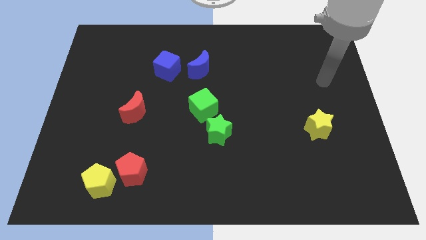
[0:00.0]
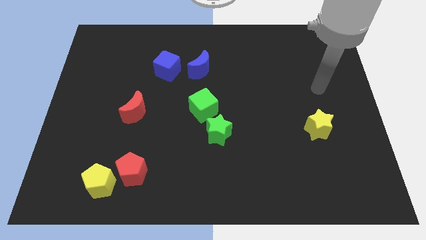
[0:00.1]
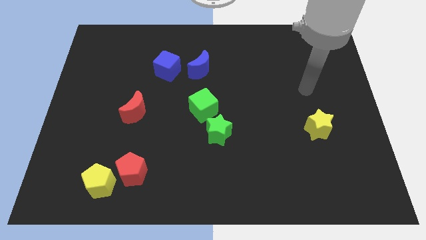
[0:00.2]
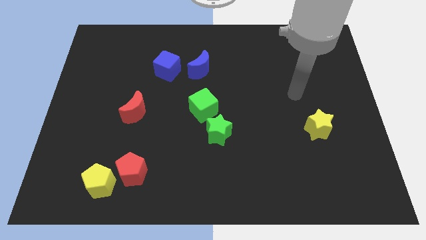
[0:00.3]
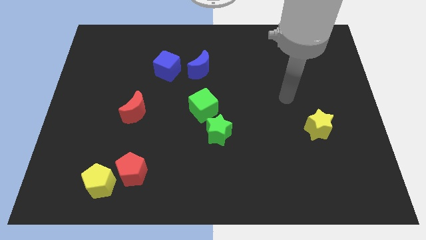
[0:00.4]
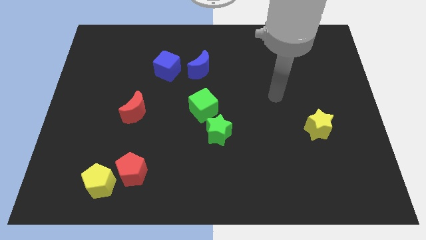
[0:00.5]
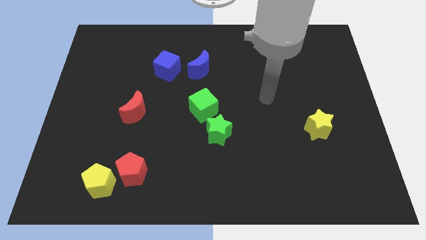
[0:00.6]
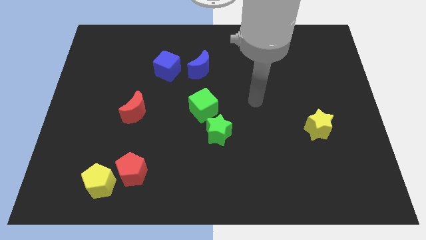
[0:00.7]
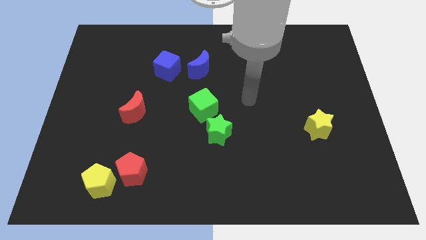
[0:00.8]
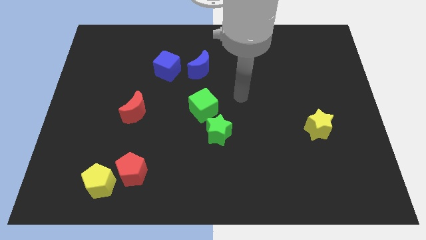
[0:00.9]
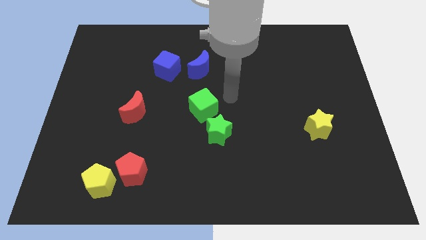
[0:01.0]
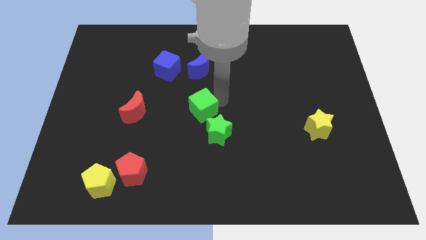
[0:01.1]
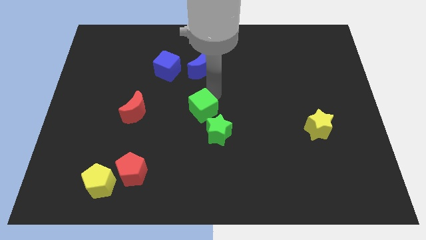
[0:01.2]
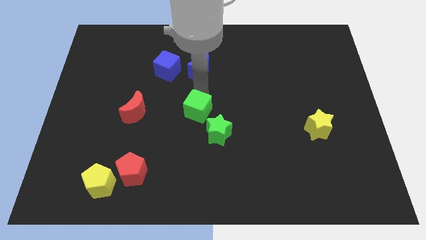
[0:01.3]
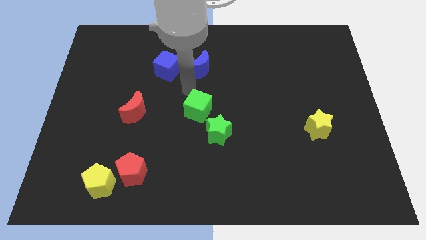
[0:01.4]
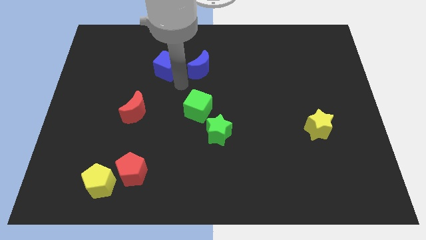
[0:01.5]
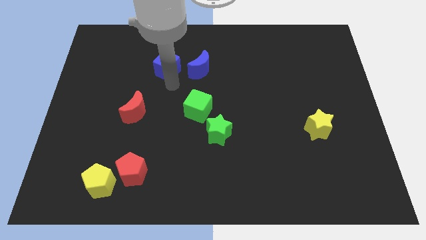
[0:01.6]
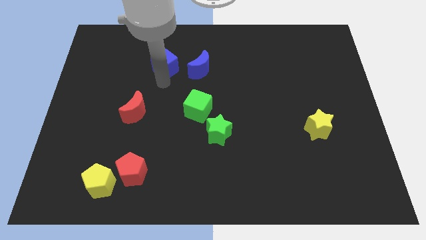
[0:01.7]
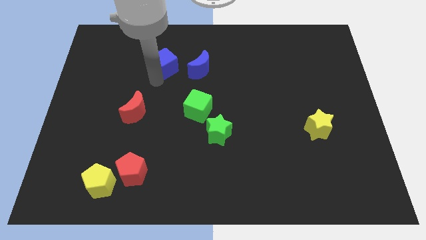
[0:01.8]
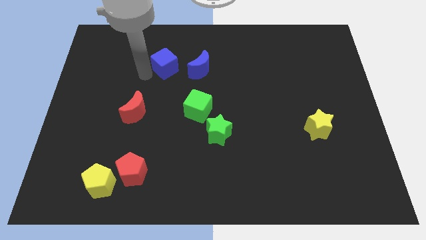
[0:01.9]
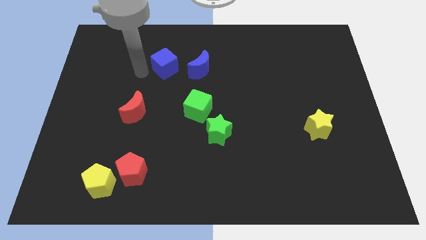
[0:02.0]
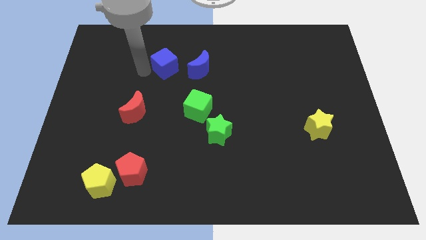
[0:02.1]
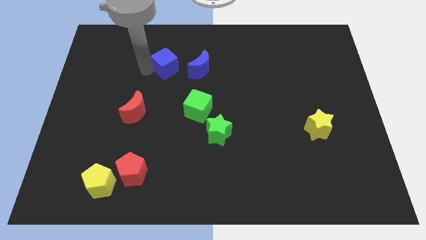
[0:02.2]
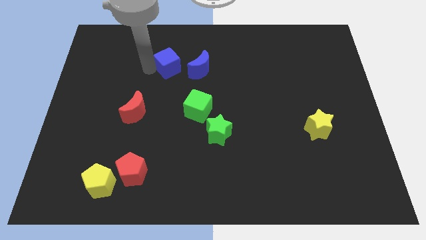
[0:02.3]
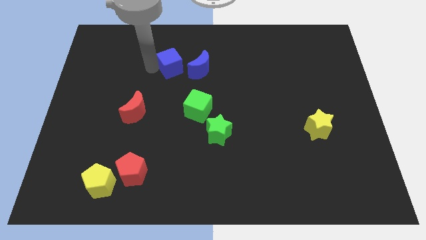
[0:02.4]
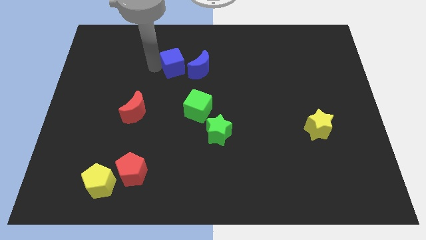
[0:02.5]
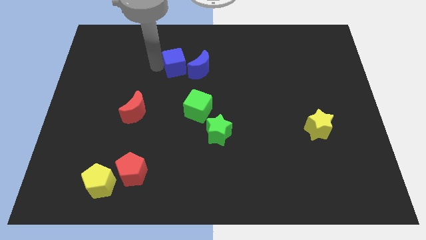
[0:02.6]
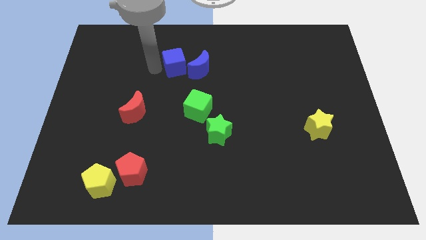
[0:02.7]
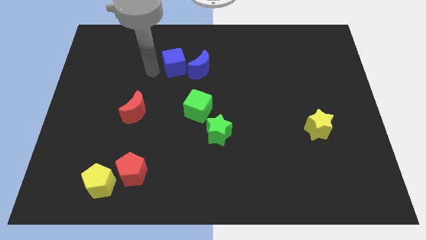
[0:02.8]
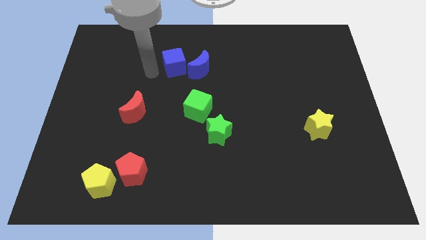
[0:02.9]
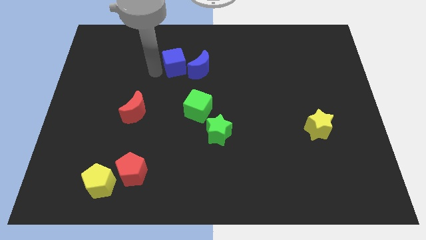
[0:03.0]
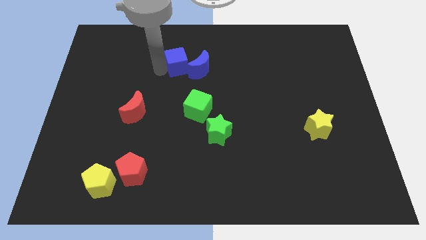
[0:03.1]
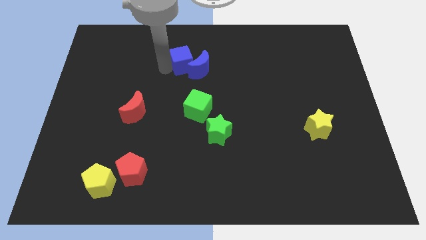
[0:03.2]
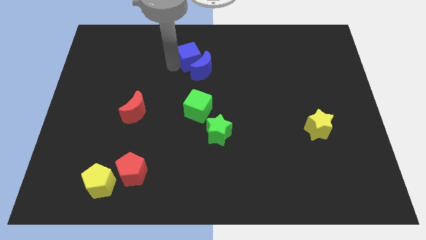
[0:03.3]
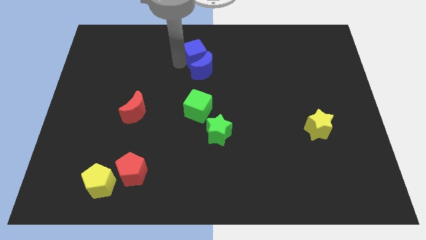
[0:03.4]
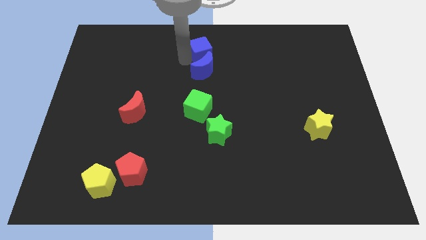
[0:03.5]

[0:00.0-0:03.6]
move the blue cube slightly right

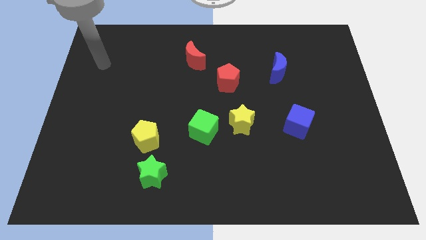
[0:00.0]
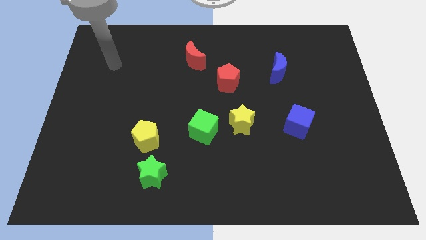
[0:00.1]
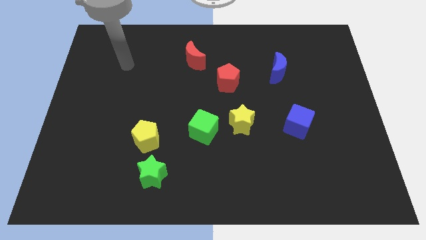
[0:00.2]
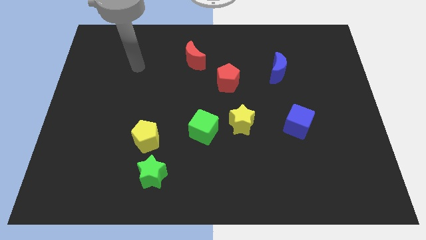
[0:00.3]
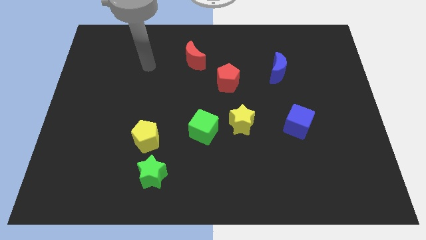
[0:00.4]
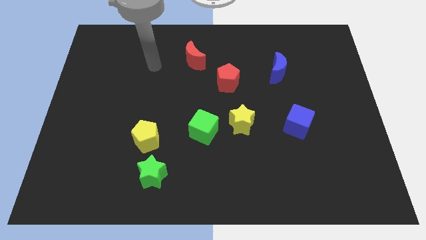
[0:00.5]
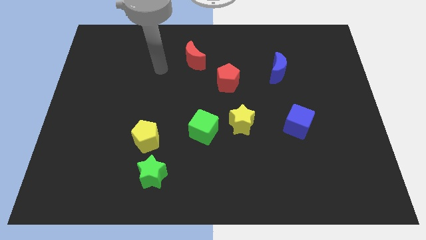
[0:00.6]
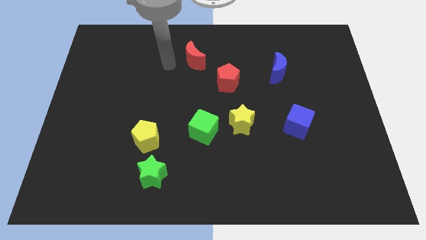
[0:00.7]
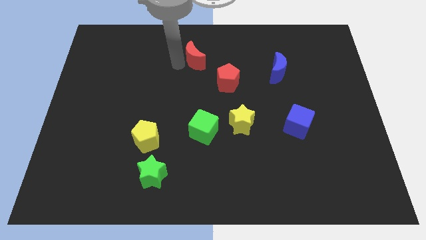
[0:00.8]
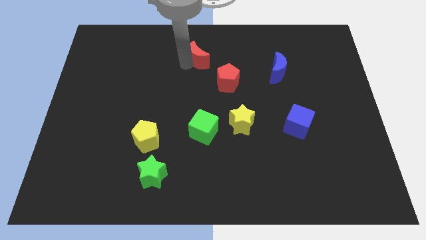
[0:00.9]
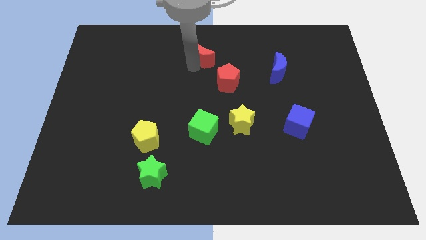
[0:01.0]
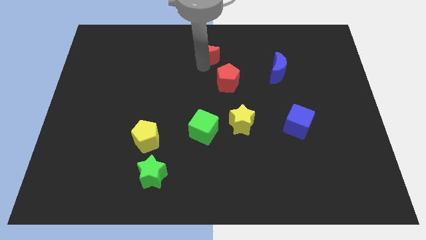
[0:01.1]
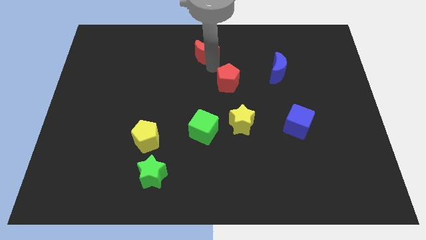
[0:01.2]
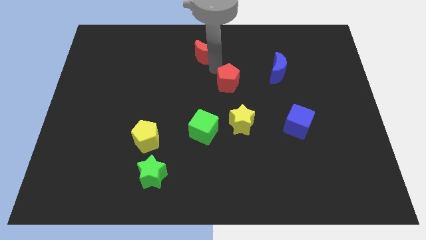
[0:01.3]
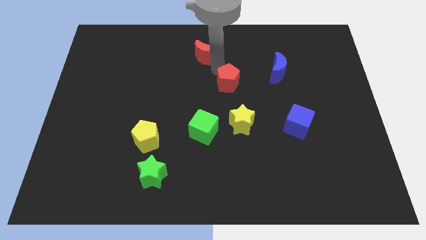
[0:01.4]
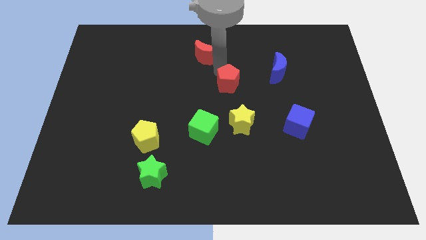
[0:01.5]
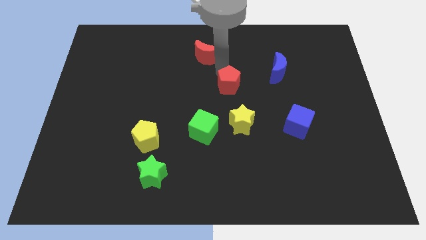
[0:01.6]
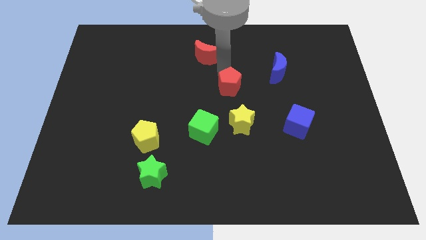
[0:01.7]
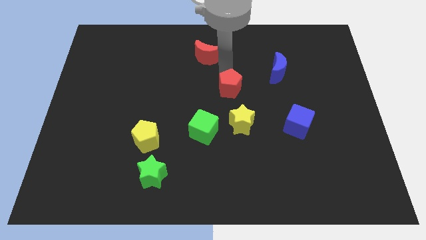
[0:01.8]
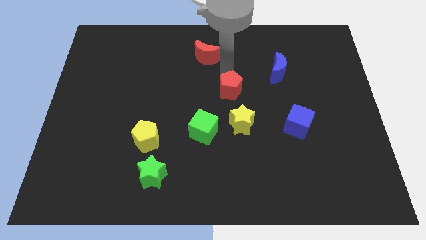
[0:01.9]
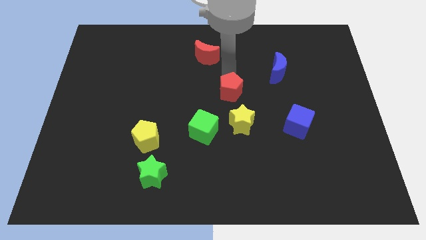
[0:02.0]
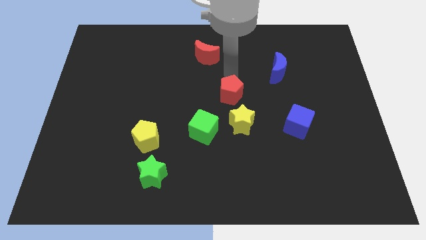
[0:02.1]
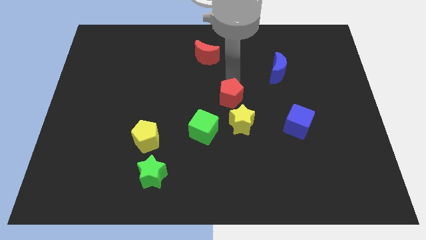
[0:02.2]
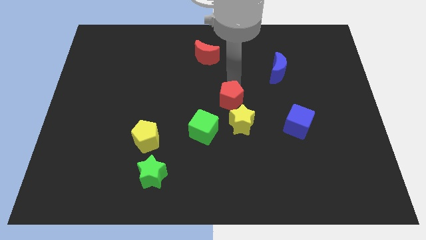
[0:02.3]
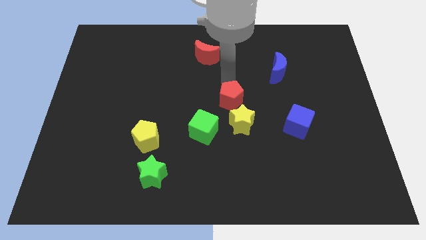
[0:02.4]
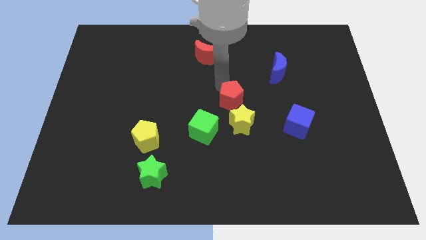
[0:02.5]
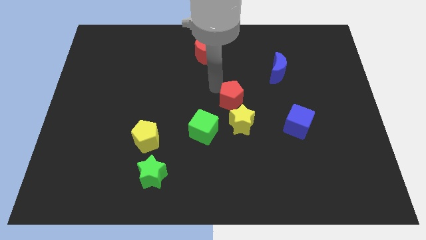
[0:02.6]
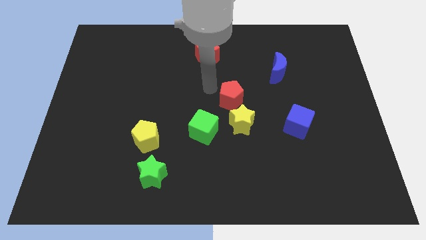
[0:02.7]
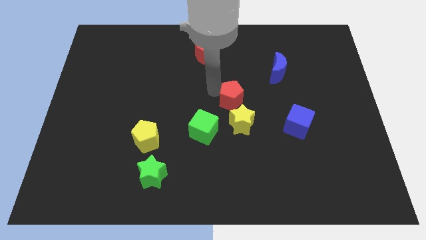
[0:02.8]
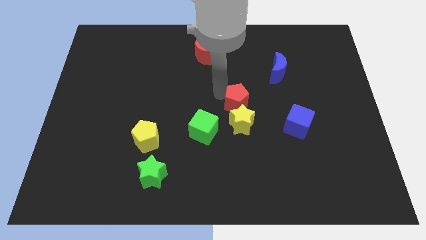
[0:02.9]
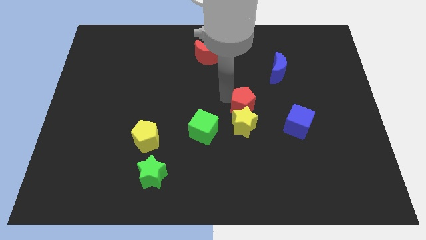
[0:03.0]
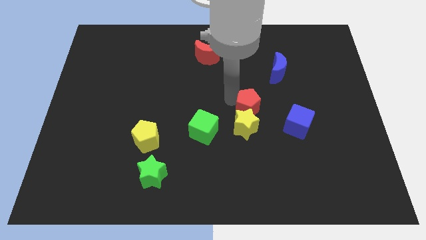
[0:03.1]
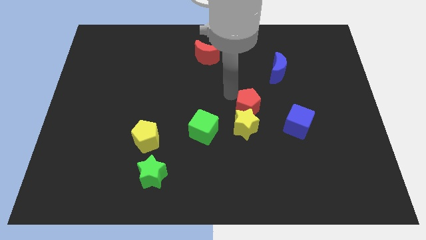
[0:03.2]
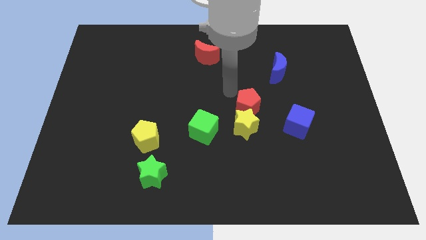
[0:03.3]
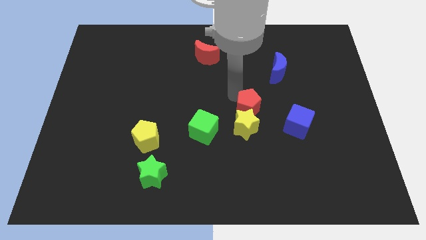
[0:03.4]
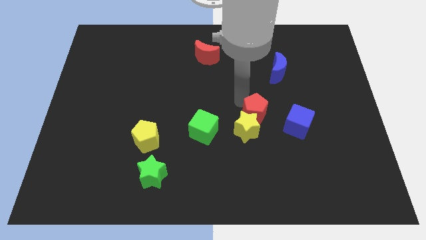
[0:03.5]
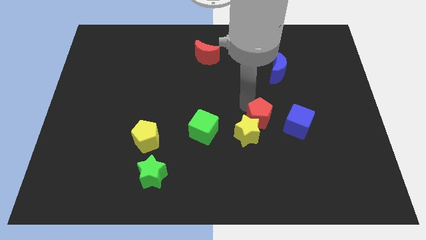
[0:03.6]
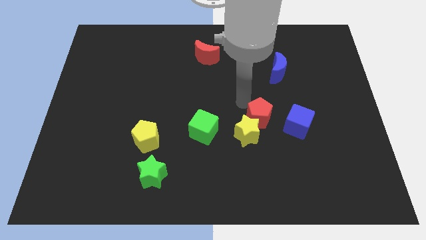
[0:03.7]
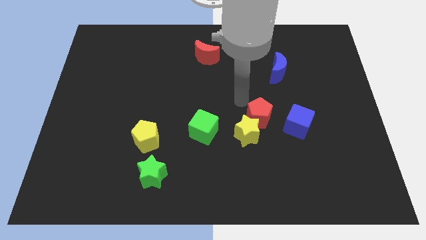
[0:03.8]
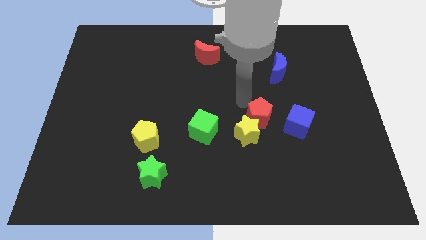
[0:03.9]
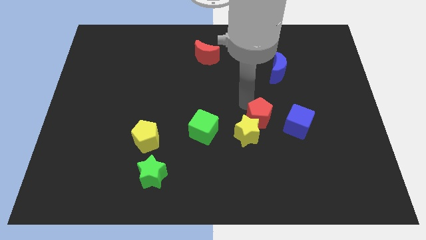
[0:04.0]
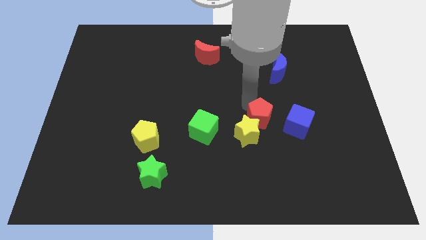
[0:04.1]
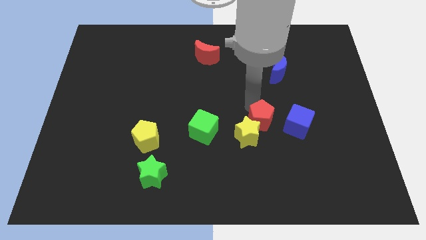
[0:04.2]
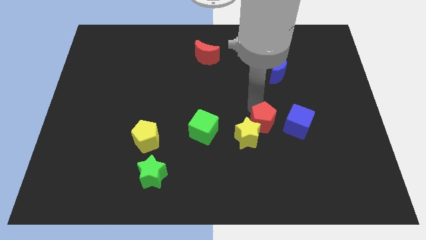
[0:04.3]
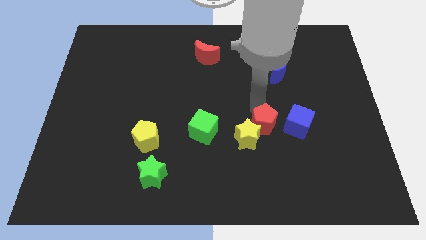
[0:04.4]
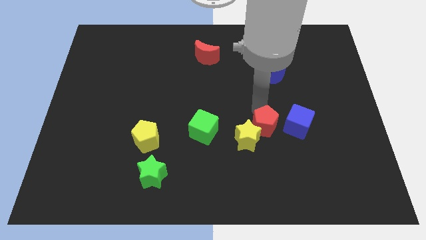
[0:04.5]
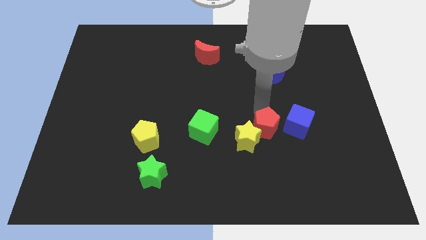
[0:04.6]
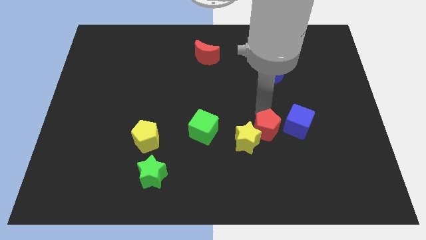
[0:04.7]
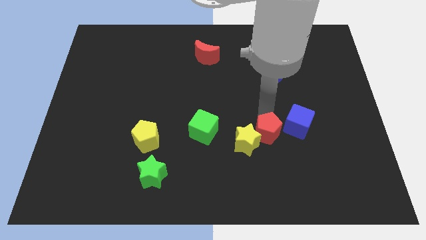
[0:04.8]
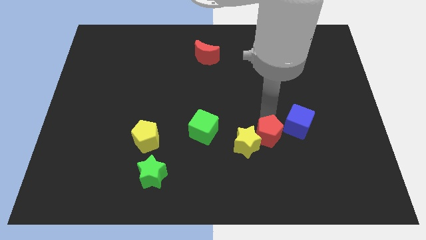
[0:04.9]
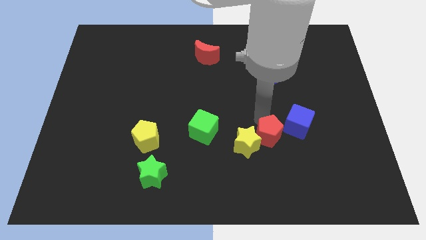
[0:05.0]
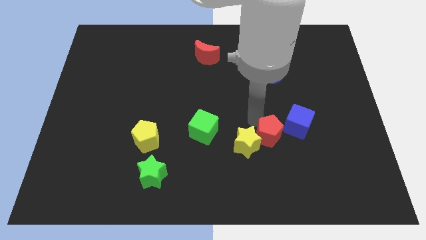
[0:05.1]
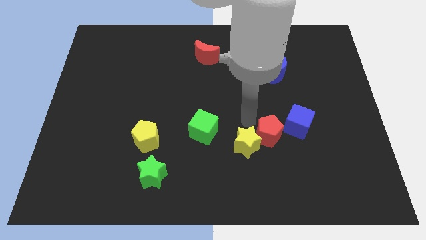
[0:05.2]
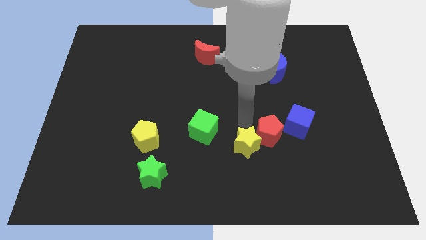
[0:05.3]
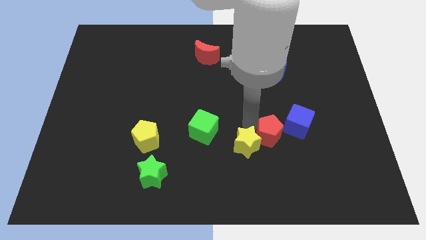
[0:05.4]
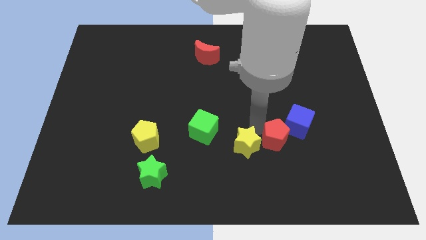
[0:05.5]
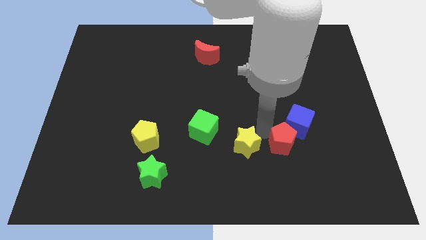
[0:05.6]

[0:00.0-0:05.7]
slide the red pentagon down and then right
